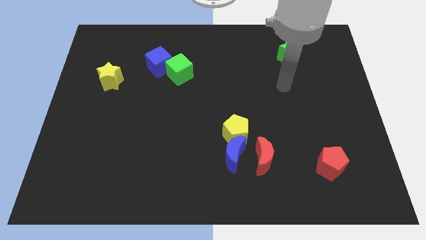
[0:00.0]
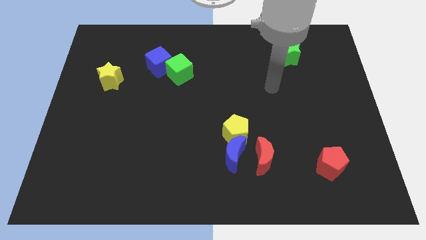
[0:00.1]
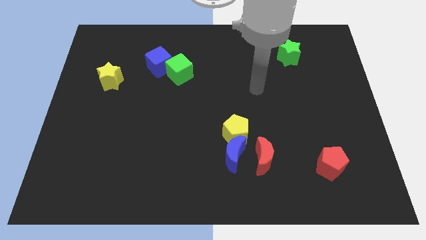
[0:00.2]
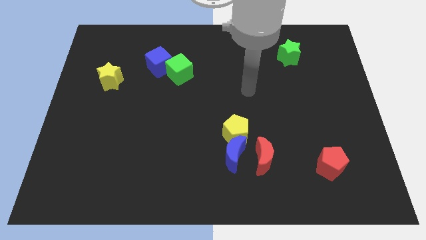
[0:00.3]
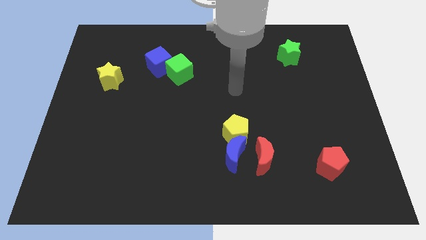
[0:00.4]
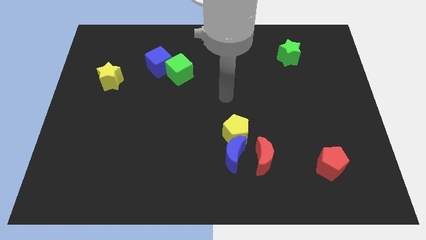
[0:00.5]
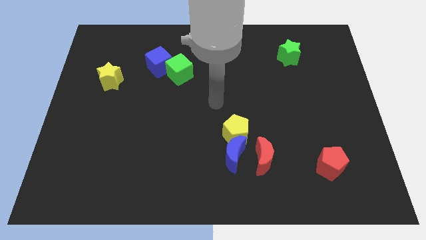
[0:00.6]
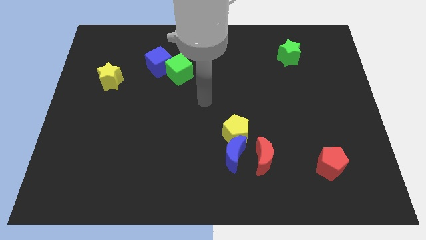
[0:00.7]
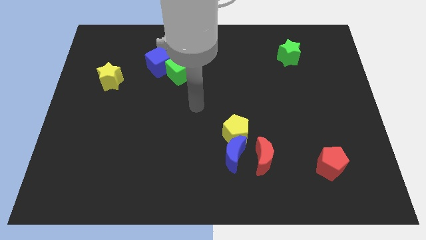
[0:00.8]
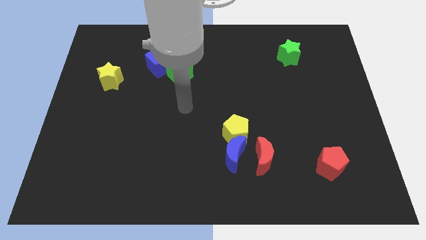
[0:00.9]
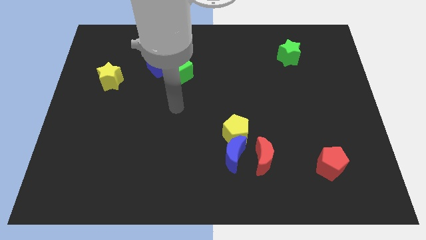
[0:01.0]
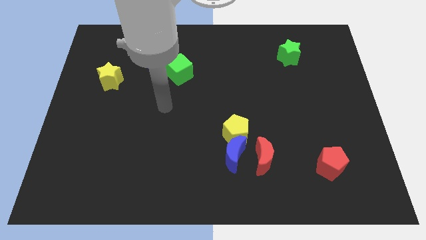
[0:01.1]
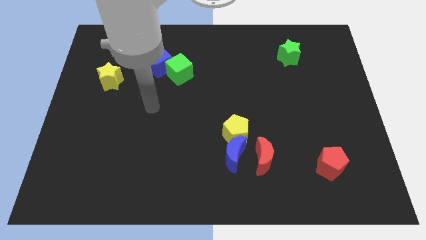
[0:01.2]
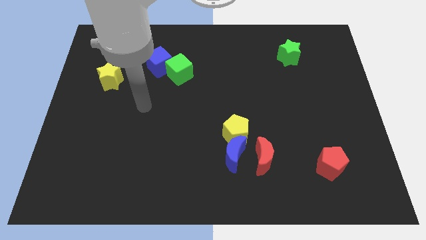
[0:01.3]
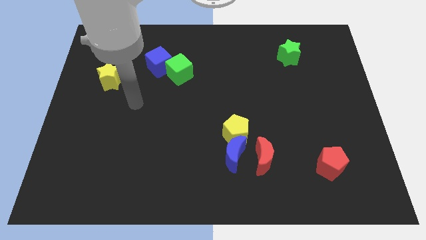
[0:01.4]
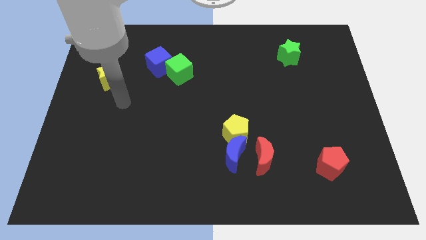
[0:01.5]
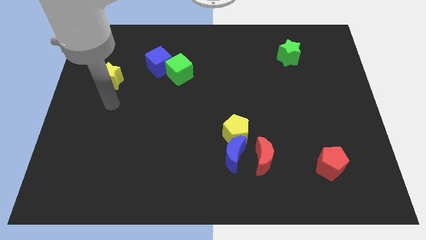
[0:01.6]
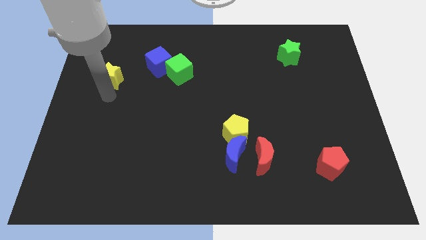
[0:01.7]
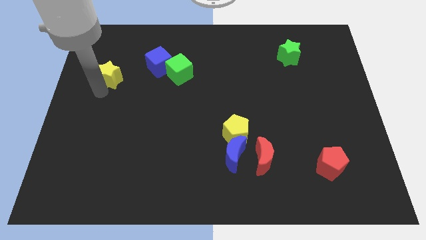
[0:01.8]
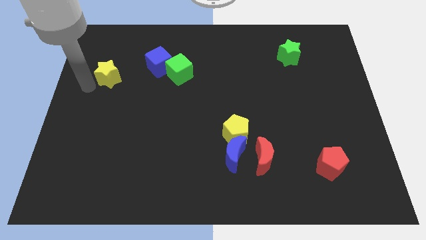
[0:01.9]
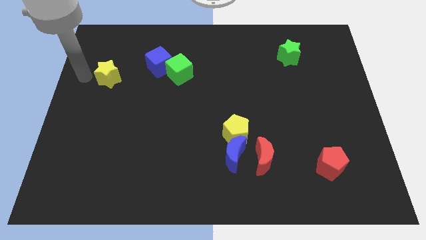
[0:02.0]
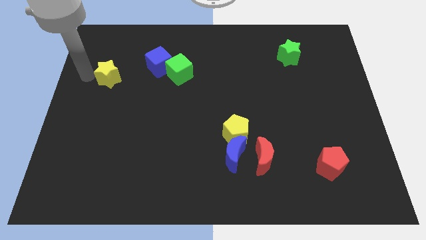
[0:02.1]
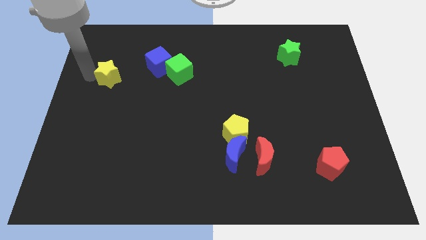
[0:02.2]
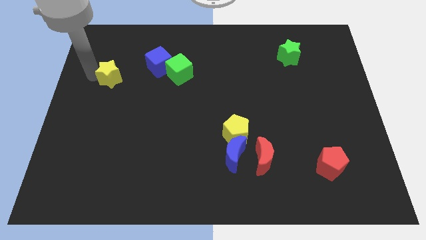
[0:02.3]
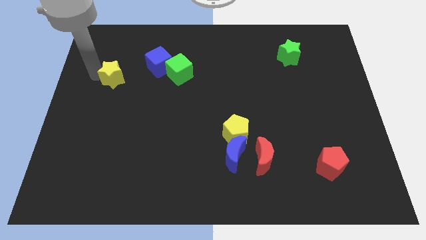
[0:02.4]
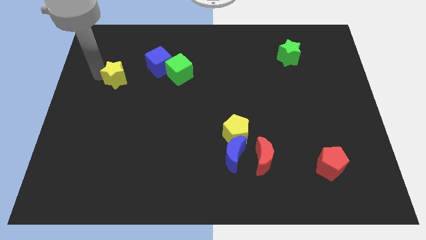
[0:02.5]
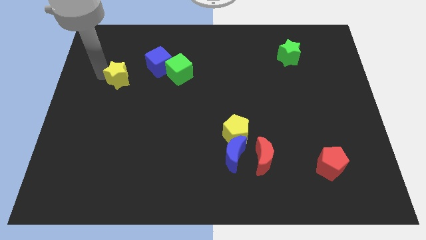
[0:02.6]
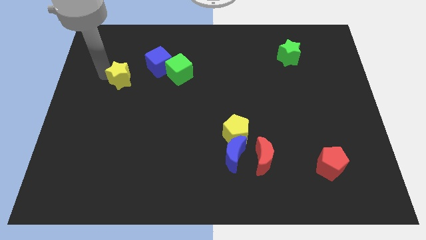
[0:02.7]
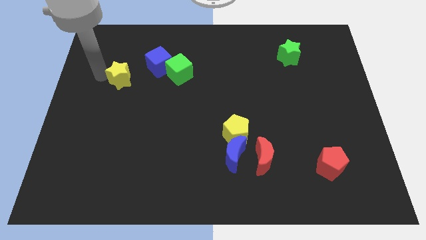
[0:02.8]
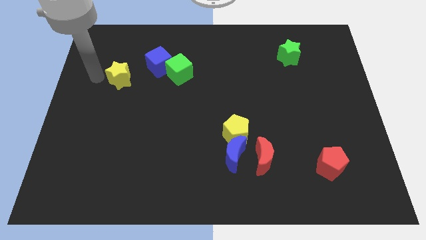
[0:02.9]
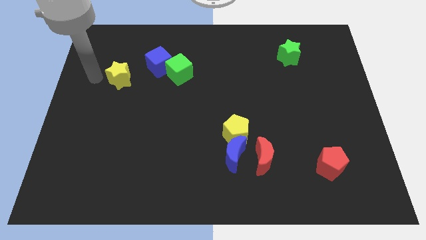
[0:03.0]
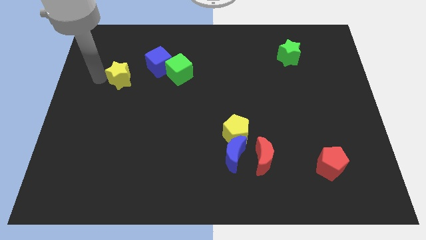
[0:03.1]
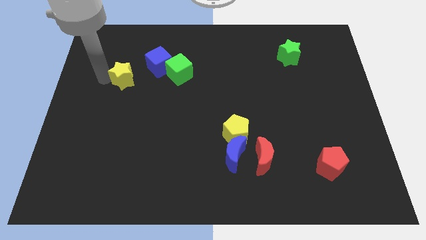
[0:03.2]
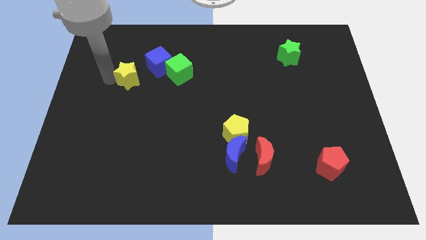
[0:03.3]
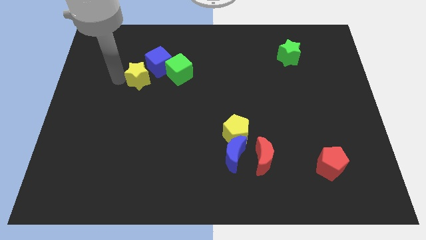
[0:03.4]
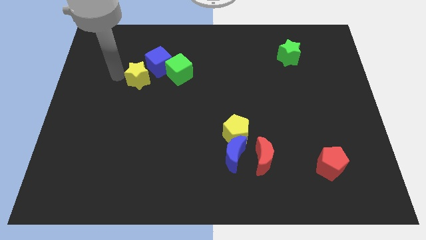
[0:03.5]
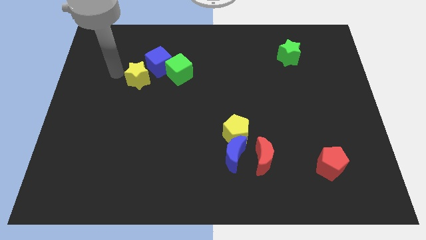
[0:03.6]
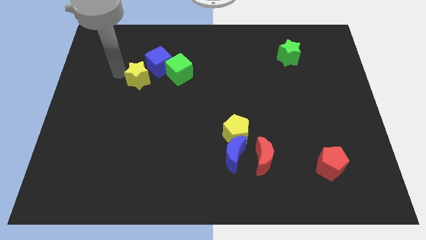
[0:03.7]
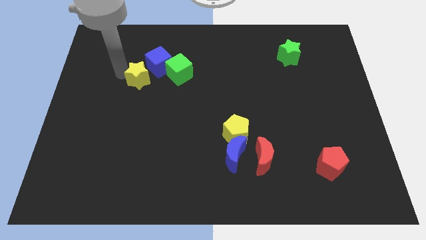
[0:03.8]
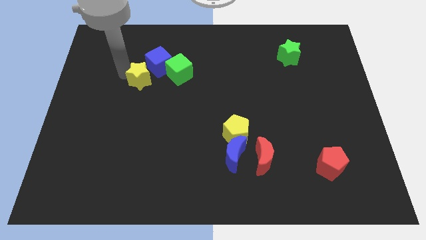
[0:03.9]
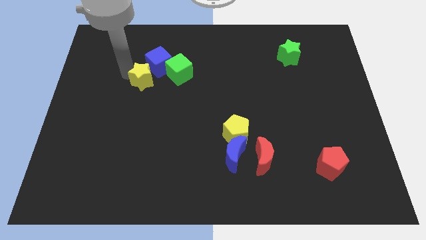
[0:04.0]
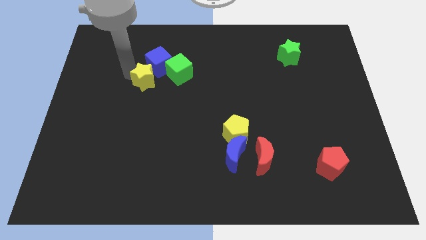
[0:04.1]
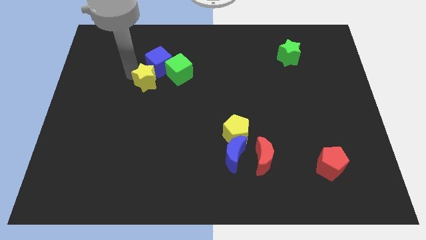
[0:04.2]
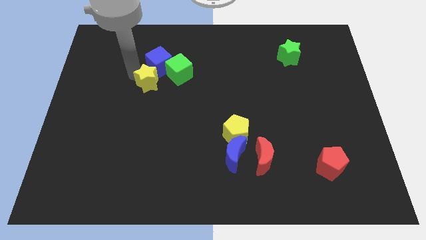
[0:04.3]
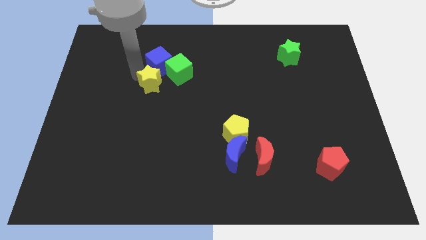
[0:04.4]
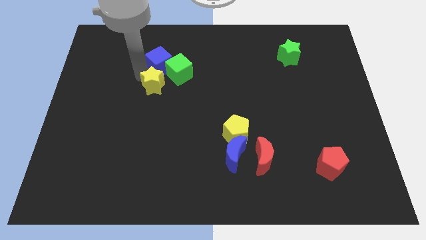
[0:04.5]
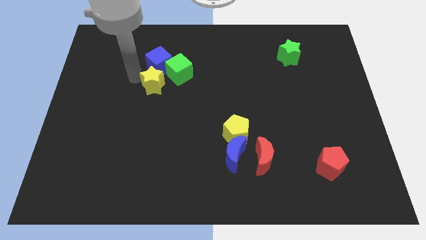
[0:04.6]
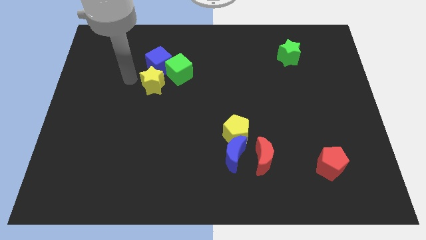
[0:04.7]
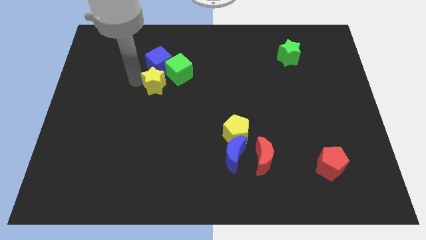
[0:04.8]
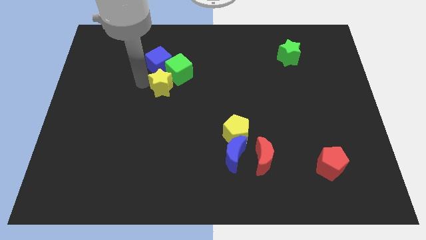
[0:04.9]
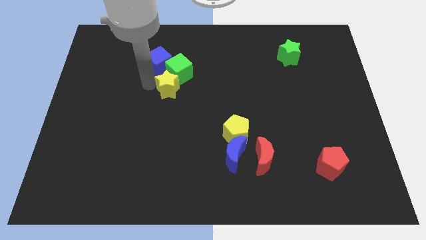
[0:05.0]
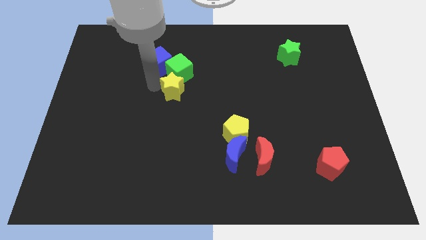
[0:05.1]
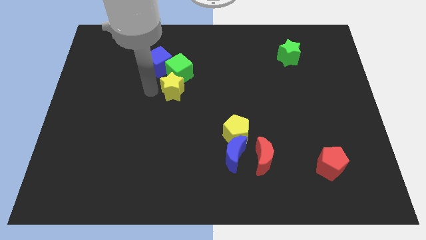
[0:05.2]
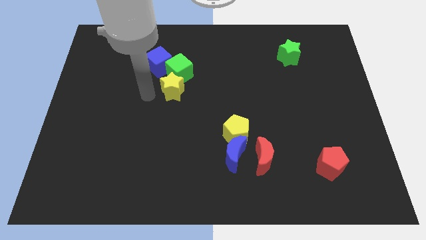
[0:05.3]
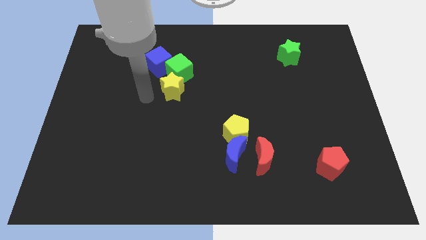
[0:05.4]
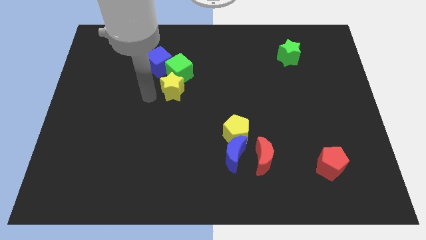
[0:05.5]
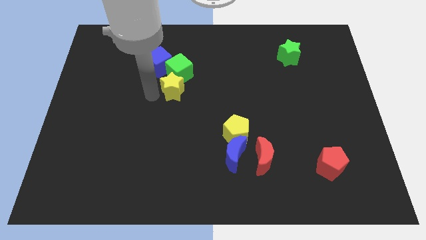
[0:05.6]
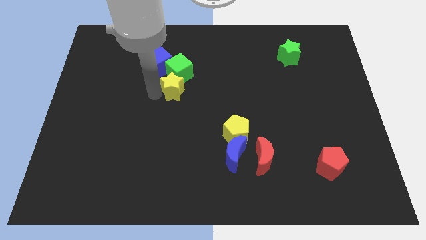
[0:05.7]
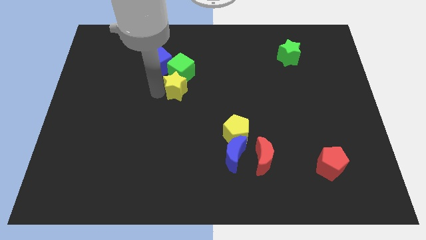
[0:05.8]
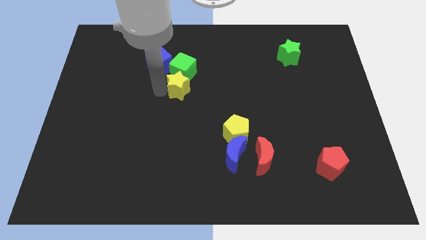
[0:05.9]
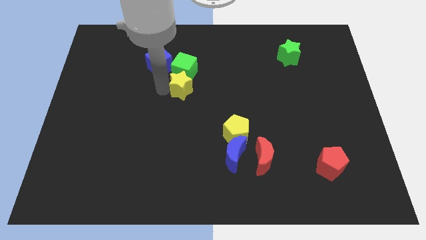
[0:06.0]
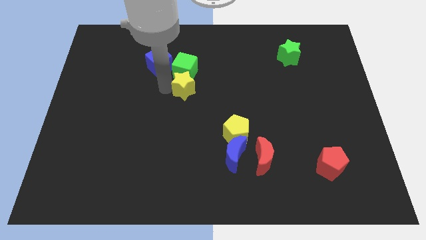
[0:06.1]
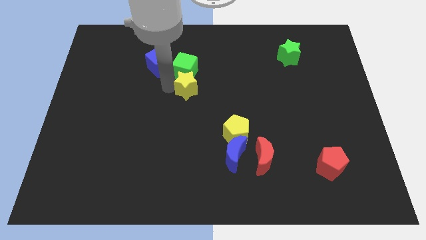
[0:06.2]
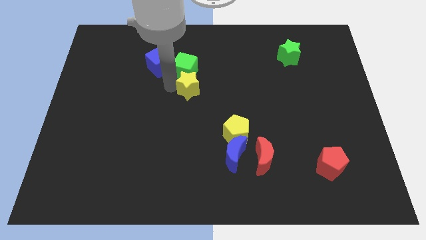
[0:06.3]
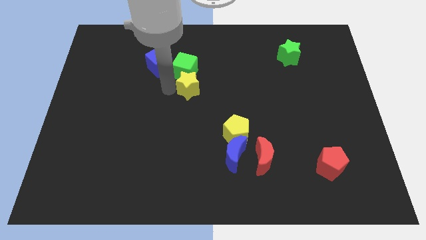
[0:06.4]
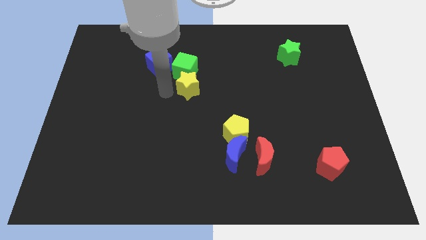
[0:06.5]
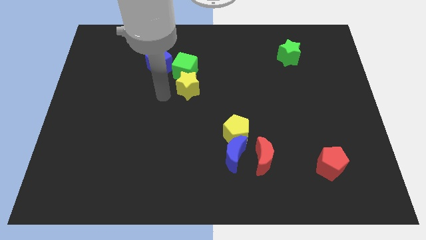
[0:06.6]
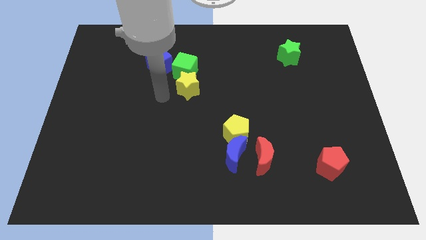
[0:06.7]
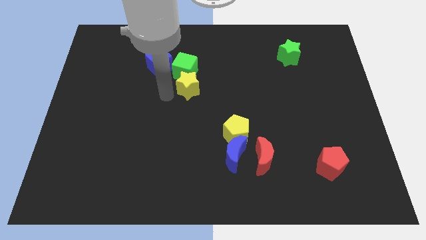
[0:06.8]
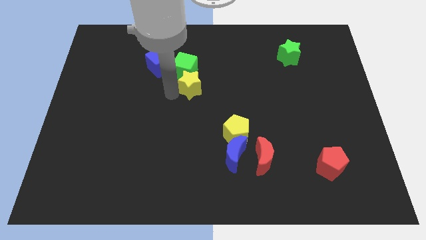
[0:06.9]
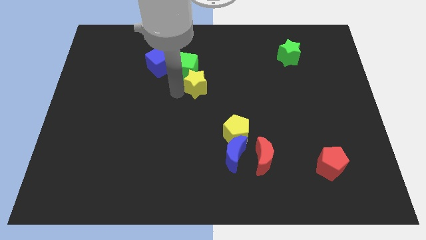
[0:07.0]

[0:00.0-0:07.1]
push the yellow star to the right

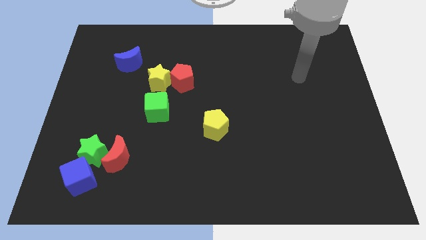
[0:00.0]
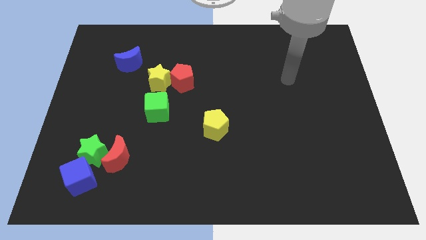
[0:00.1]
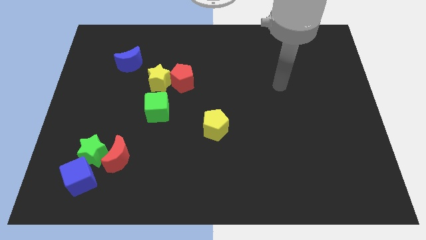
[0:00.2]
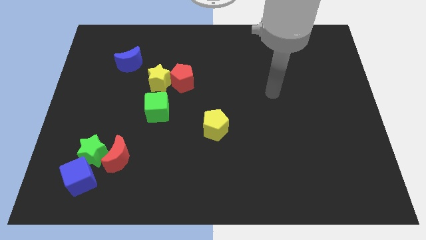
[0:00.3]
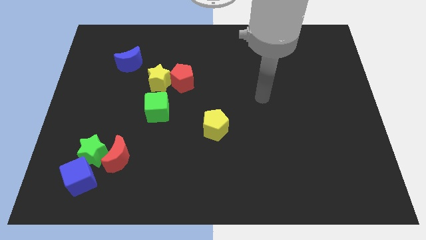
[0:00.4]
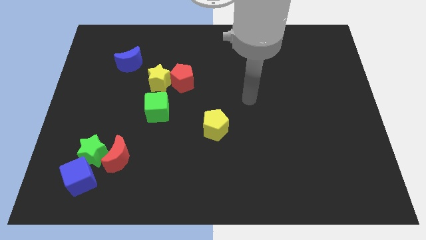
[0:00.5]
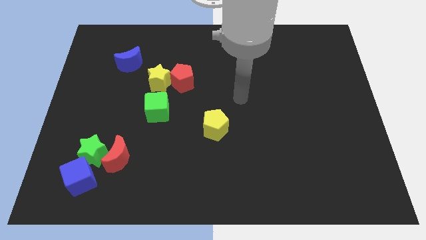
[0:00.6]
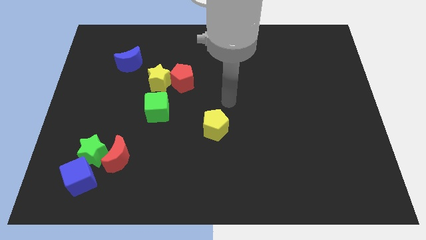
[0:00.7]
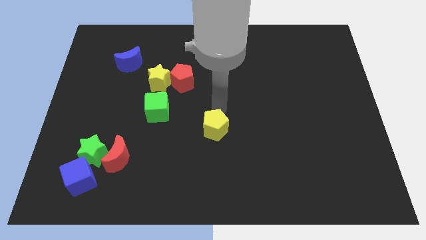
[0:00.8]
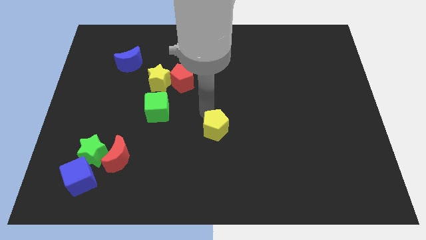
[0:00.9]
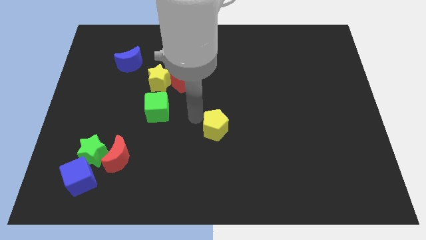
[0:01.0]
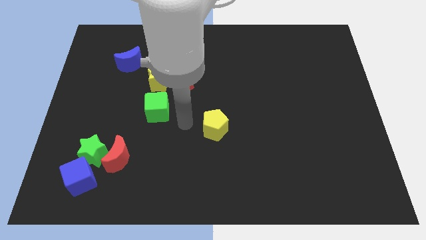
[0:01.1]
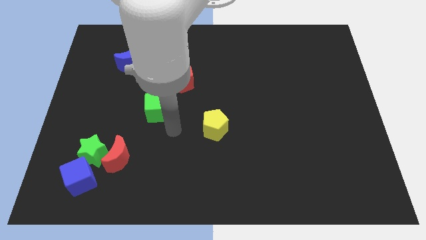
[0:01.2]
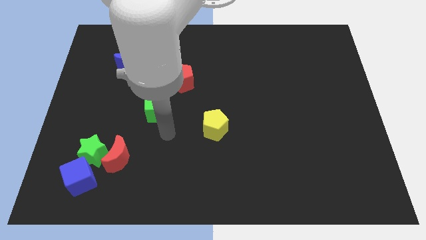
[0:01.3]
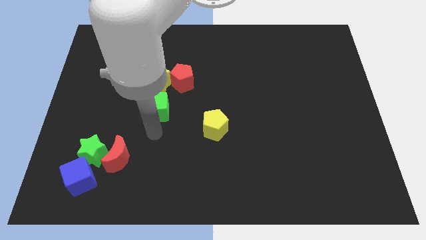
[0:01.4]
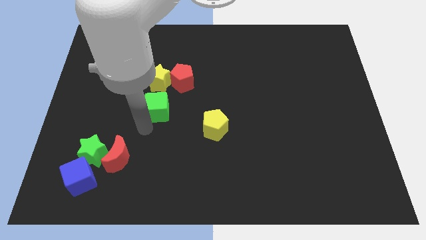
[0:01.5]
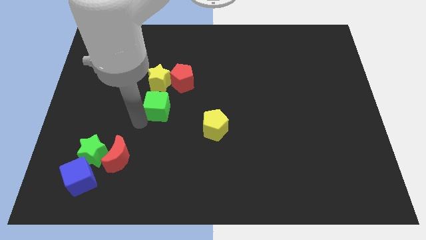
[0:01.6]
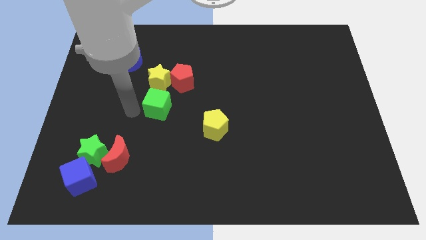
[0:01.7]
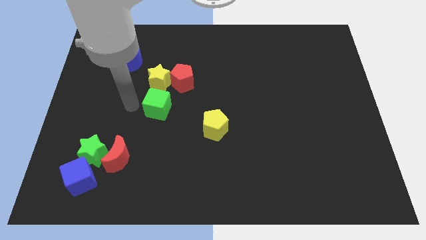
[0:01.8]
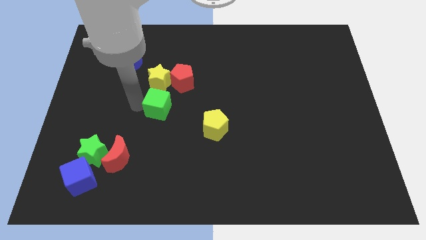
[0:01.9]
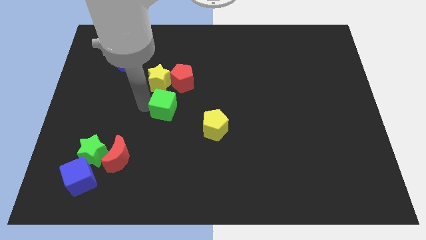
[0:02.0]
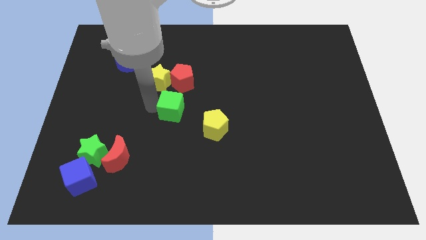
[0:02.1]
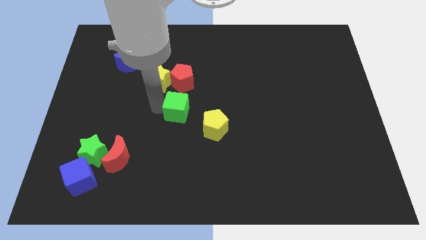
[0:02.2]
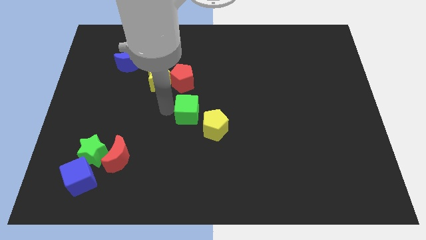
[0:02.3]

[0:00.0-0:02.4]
slightly slide the green cube to the right
